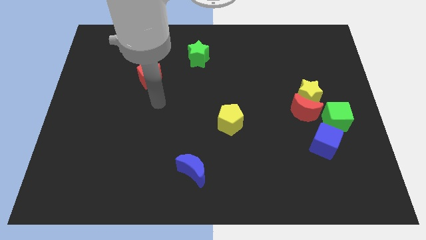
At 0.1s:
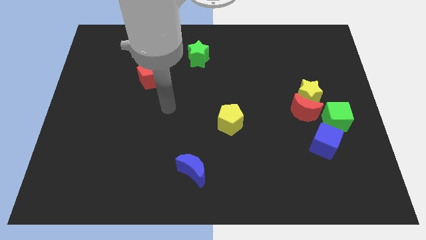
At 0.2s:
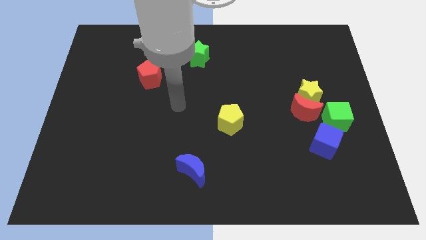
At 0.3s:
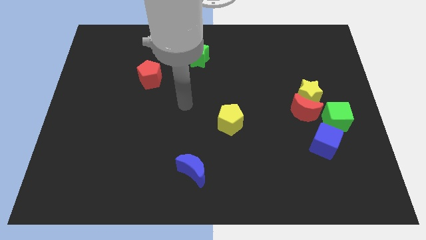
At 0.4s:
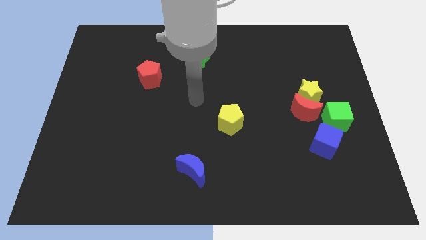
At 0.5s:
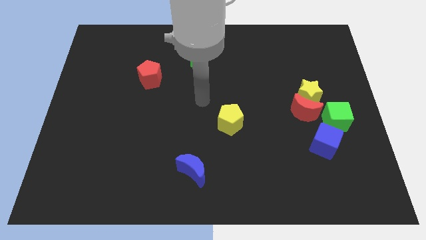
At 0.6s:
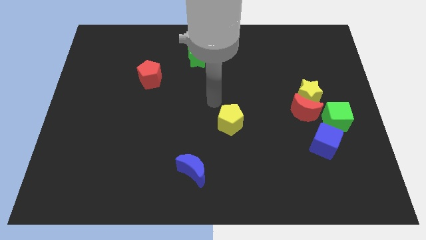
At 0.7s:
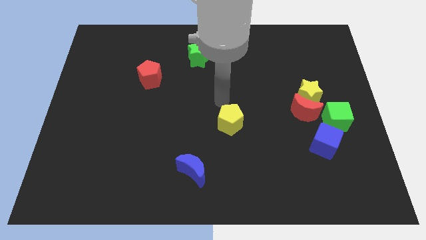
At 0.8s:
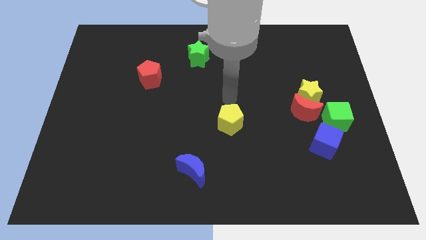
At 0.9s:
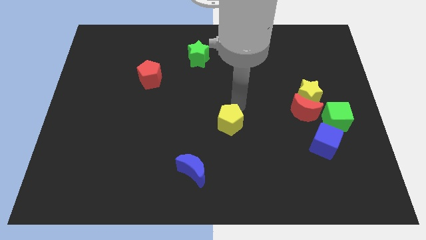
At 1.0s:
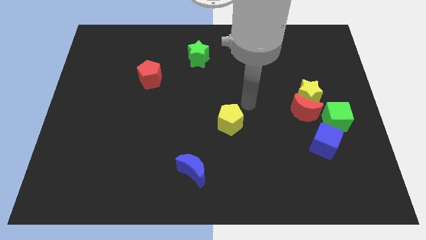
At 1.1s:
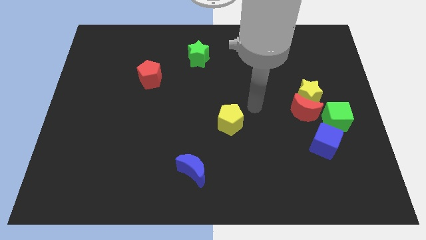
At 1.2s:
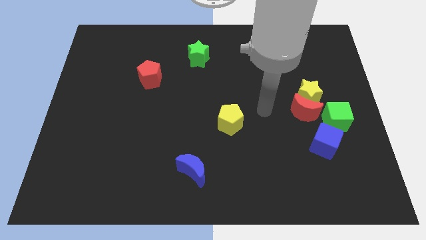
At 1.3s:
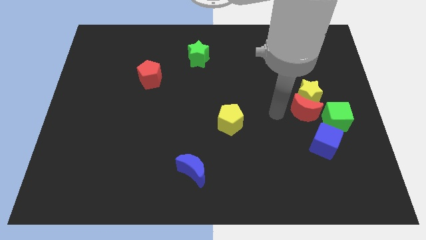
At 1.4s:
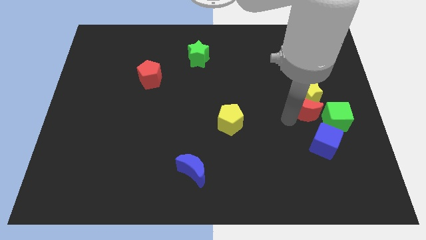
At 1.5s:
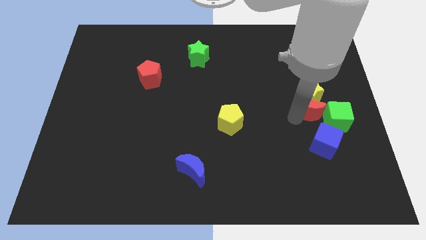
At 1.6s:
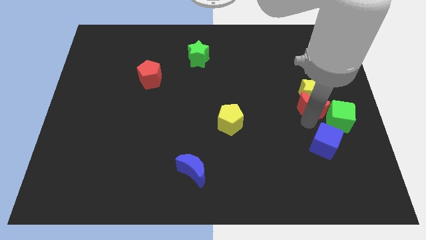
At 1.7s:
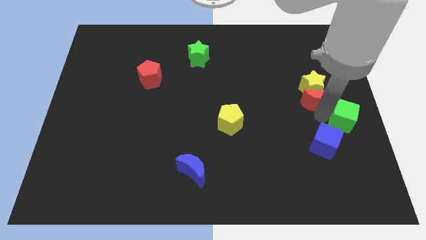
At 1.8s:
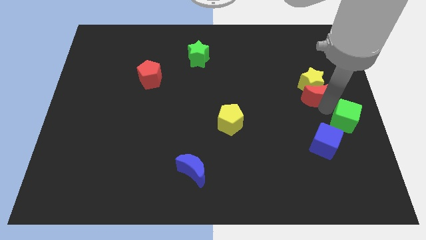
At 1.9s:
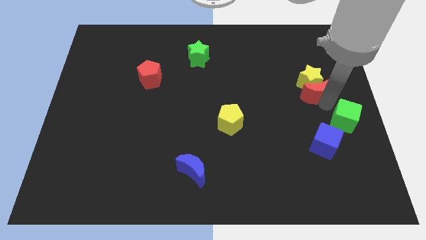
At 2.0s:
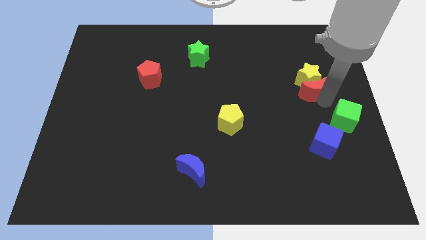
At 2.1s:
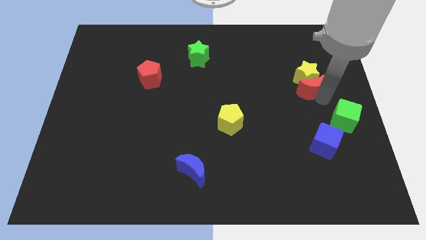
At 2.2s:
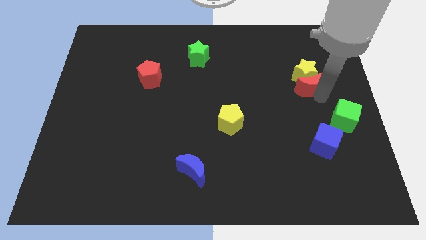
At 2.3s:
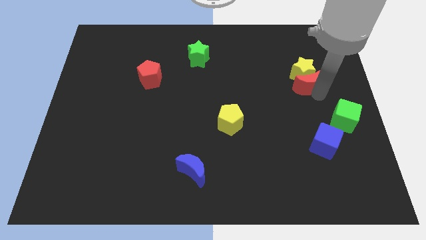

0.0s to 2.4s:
move the yellow star away from the red moon and green cube

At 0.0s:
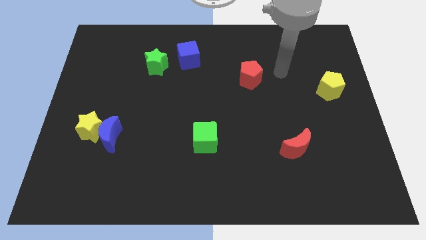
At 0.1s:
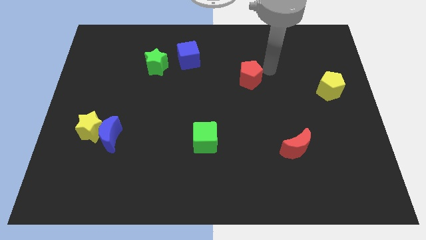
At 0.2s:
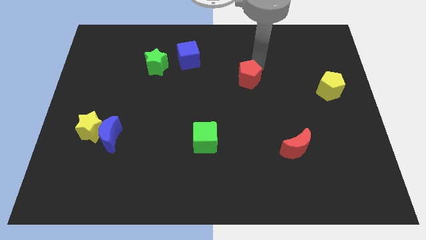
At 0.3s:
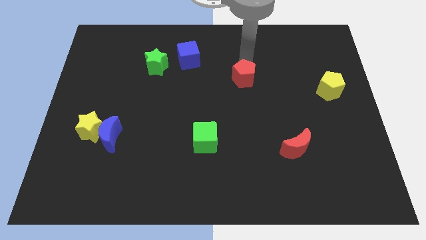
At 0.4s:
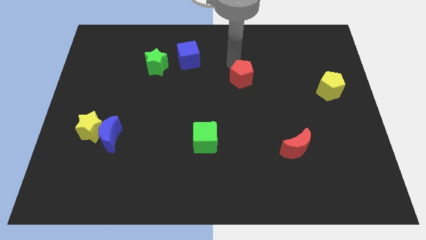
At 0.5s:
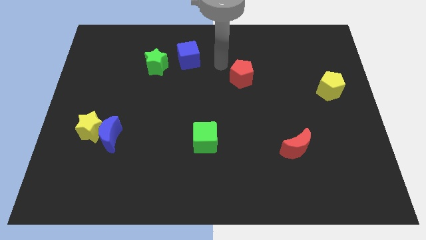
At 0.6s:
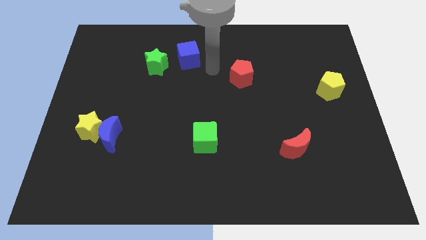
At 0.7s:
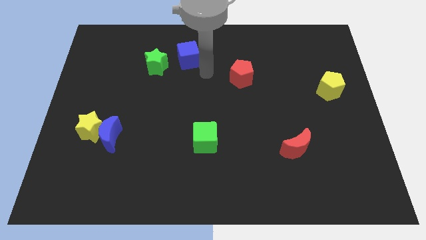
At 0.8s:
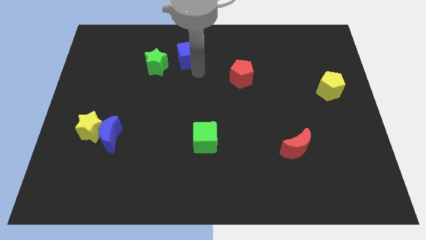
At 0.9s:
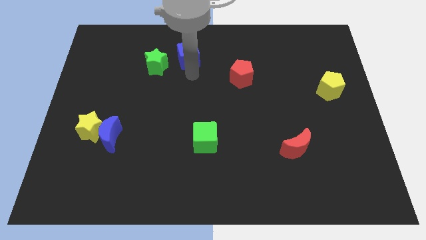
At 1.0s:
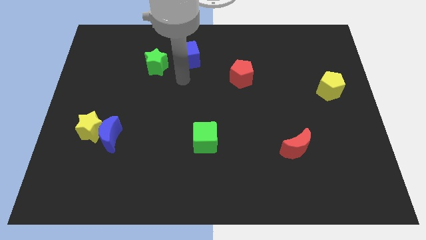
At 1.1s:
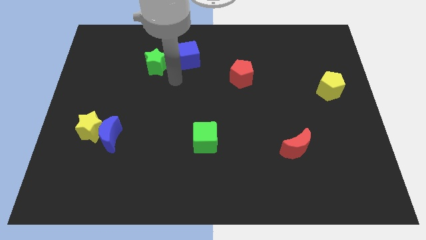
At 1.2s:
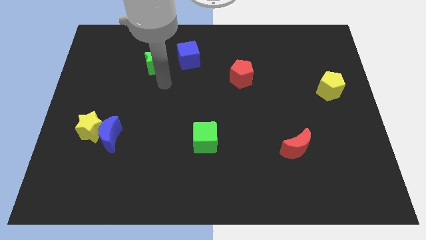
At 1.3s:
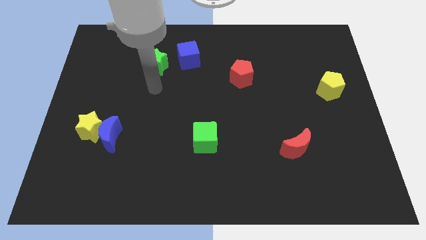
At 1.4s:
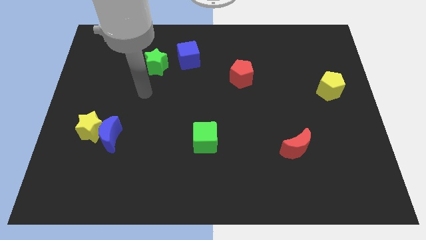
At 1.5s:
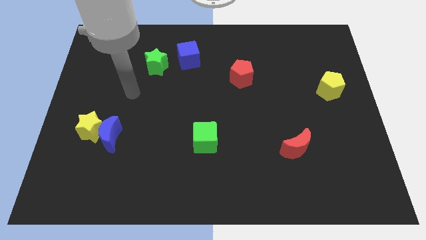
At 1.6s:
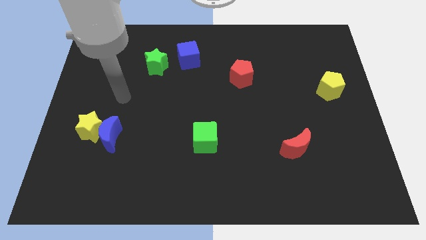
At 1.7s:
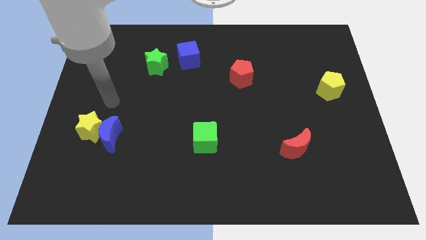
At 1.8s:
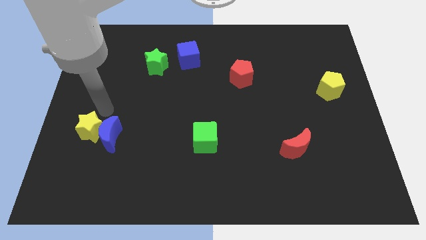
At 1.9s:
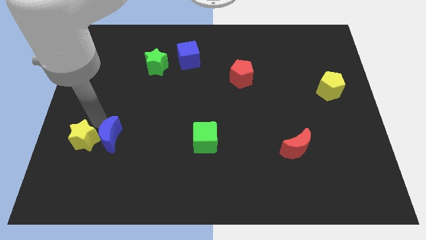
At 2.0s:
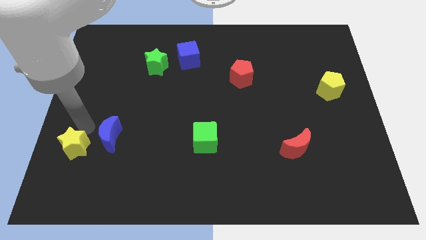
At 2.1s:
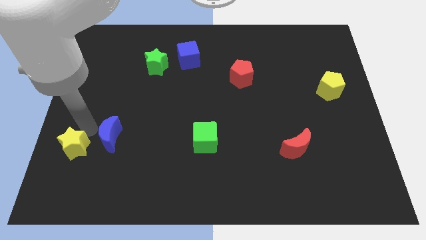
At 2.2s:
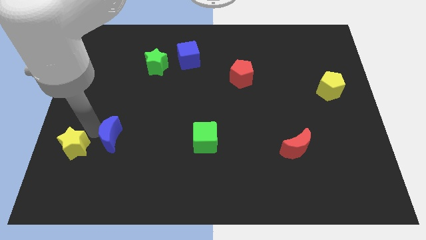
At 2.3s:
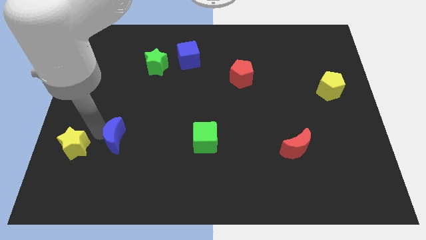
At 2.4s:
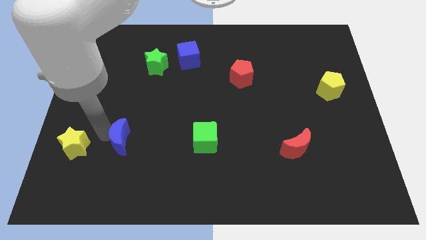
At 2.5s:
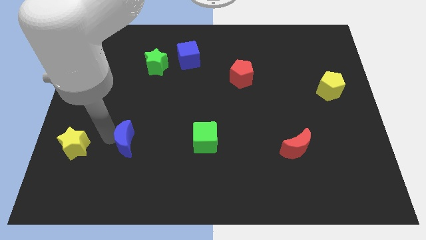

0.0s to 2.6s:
separate the blue moon from the yellow star

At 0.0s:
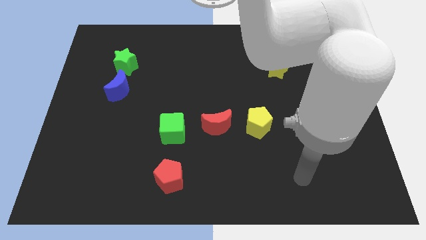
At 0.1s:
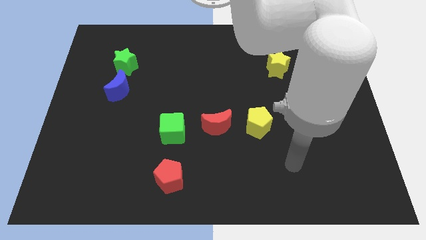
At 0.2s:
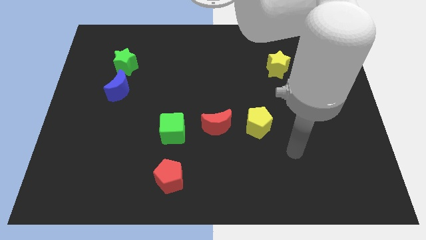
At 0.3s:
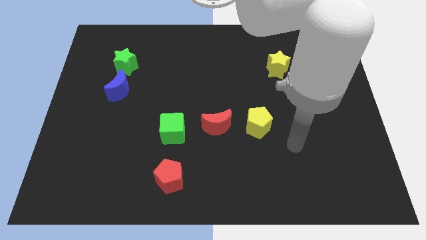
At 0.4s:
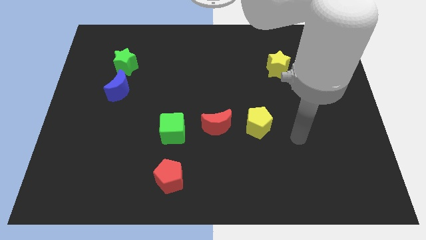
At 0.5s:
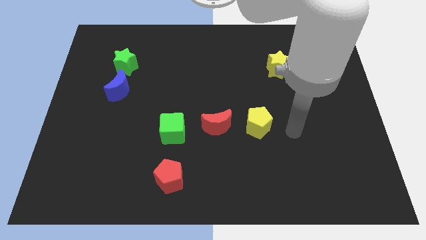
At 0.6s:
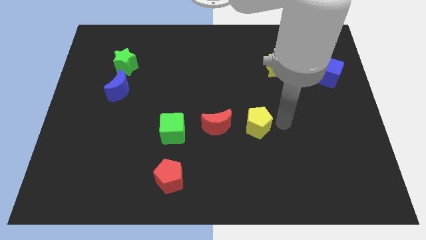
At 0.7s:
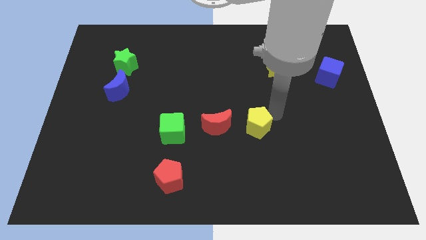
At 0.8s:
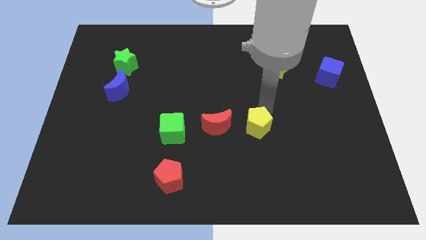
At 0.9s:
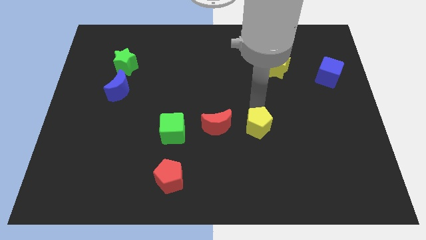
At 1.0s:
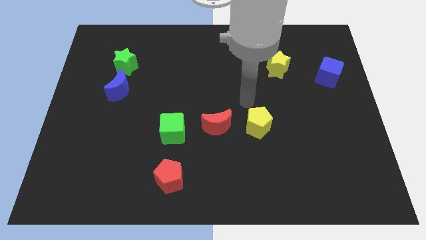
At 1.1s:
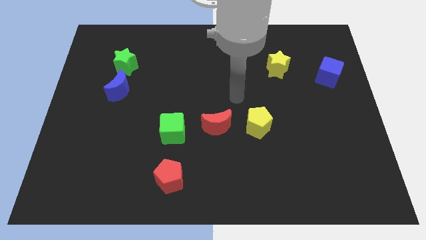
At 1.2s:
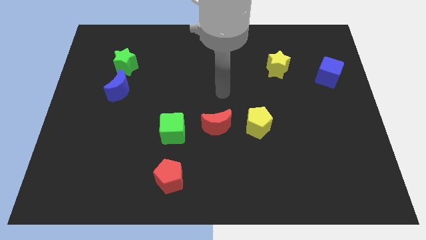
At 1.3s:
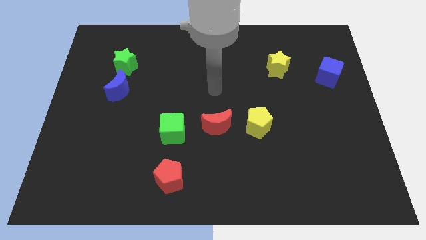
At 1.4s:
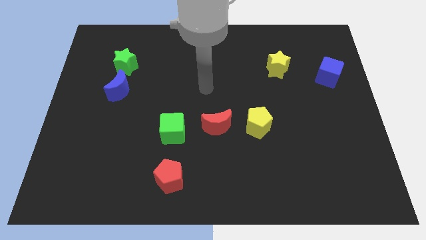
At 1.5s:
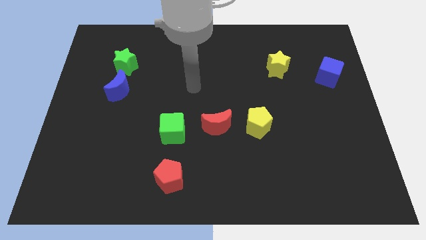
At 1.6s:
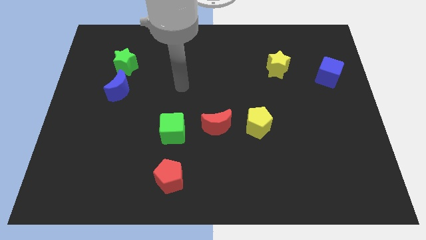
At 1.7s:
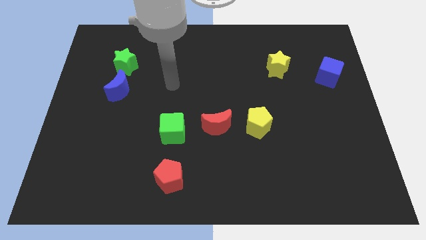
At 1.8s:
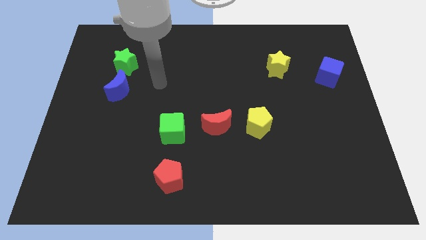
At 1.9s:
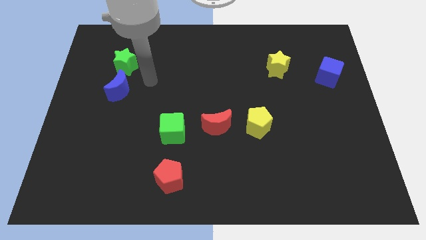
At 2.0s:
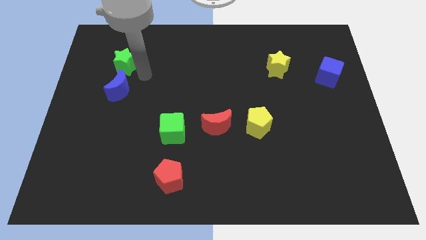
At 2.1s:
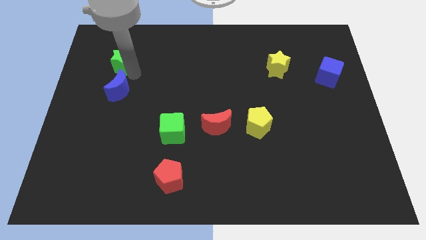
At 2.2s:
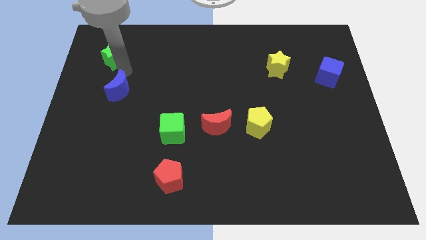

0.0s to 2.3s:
separate the blue moon from the green star

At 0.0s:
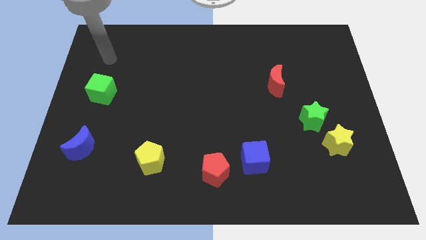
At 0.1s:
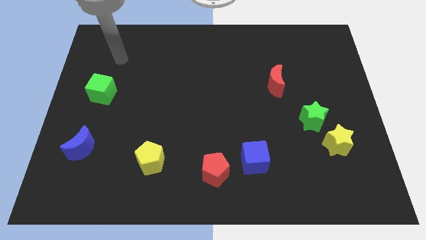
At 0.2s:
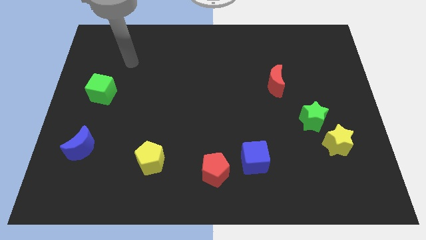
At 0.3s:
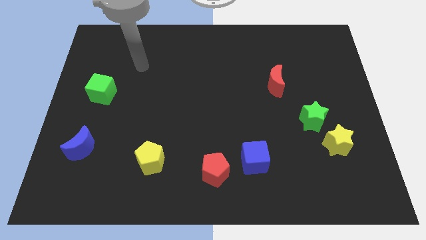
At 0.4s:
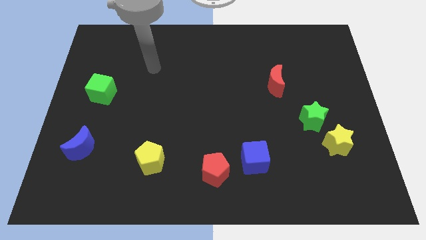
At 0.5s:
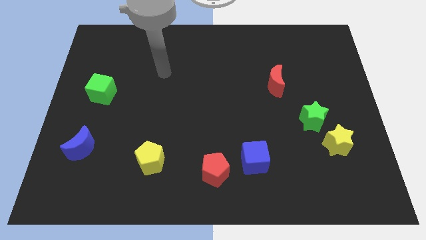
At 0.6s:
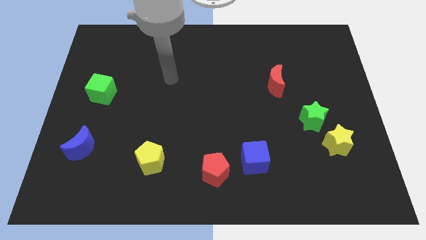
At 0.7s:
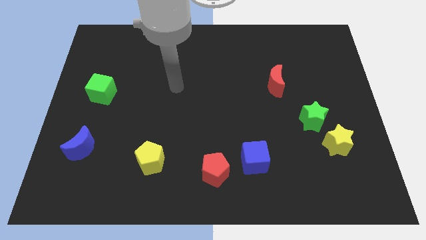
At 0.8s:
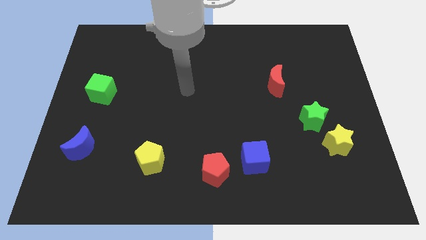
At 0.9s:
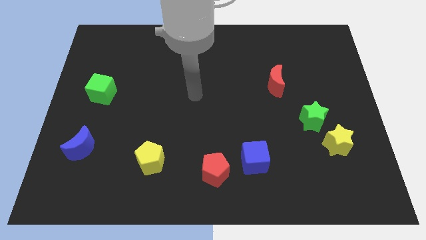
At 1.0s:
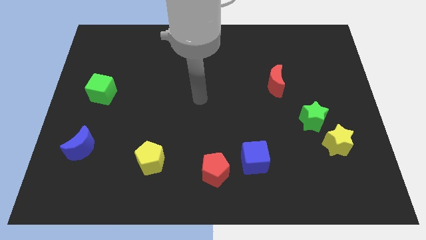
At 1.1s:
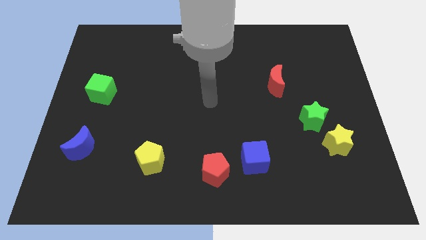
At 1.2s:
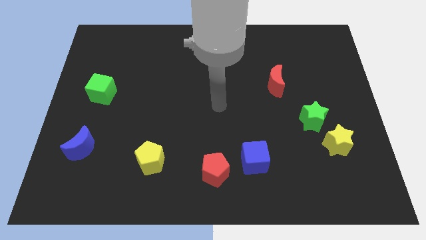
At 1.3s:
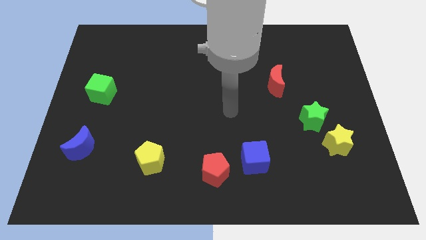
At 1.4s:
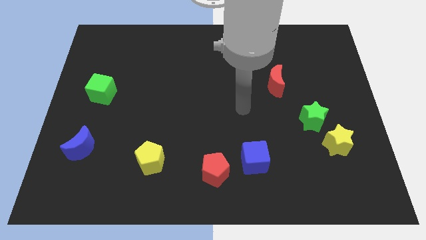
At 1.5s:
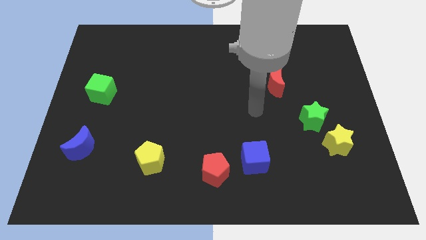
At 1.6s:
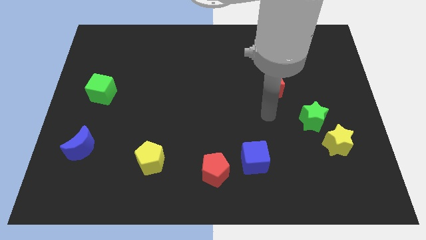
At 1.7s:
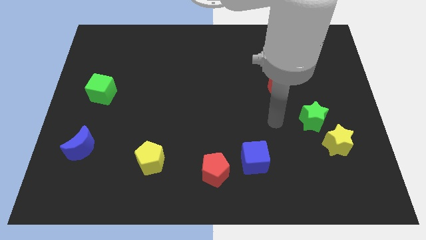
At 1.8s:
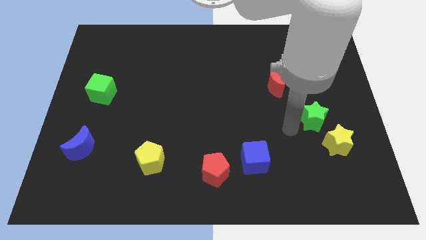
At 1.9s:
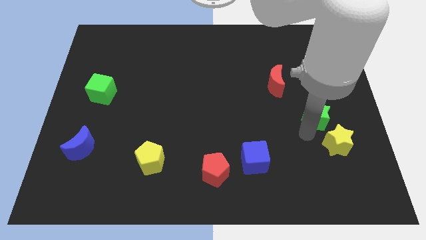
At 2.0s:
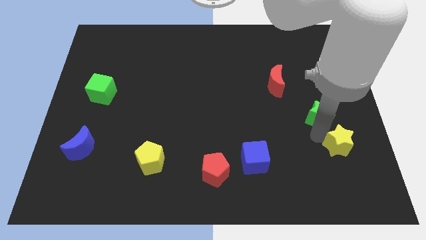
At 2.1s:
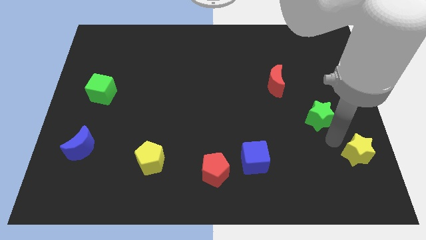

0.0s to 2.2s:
separate the green star from the yellow star
